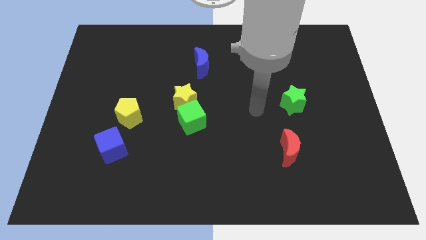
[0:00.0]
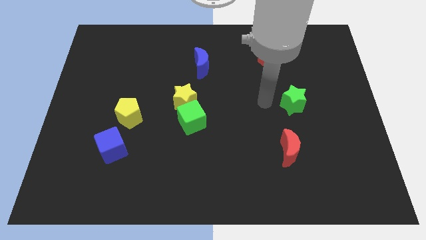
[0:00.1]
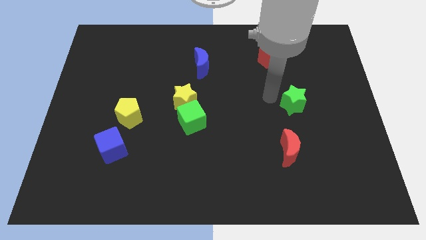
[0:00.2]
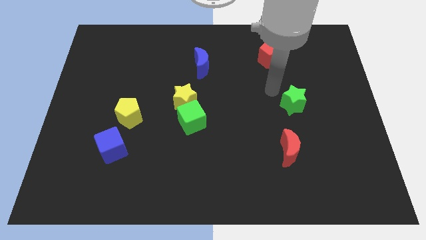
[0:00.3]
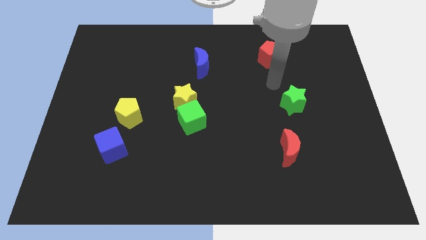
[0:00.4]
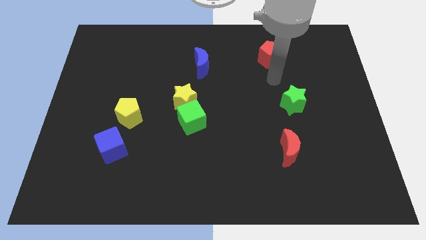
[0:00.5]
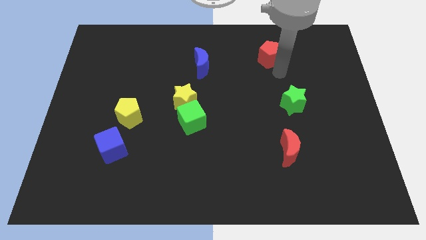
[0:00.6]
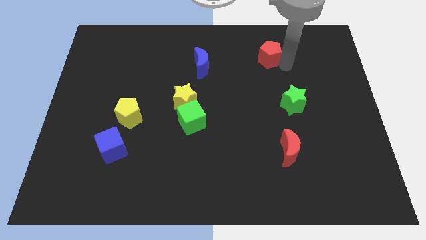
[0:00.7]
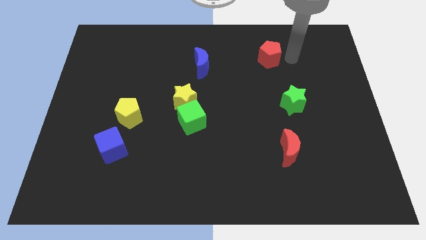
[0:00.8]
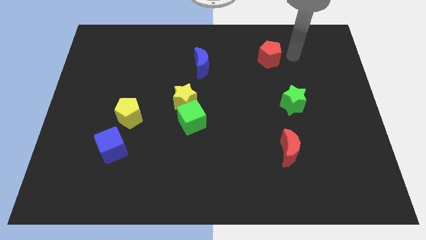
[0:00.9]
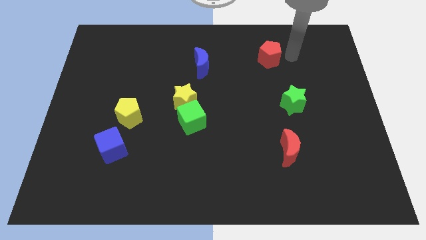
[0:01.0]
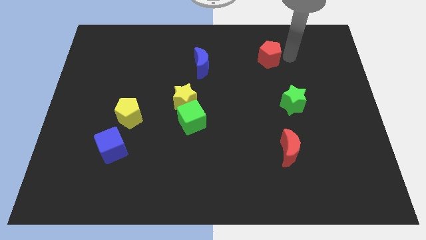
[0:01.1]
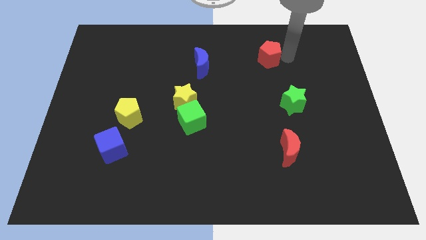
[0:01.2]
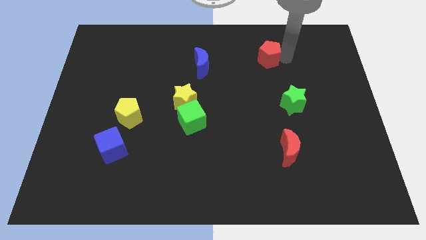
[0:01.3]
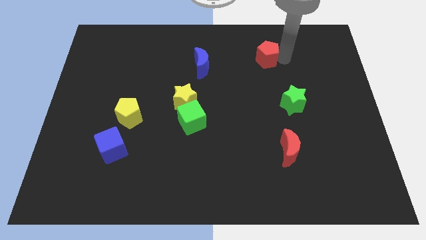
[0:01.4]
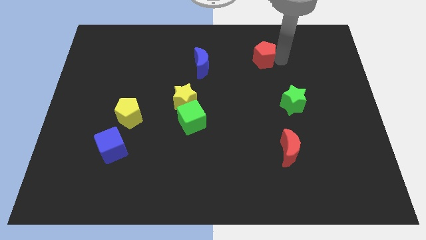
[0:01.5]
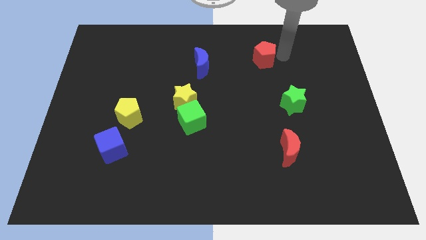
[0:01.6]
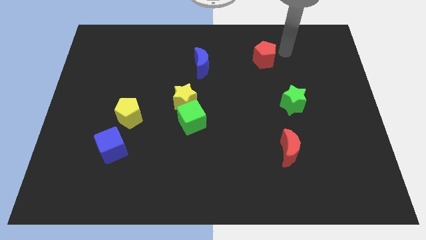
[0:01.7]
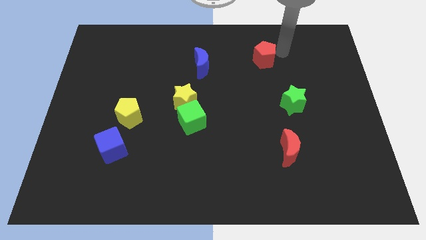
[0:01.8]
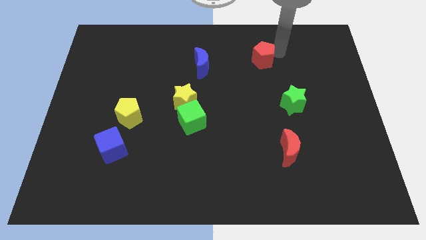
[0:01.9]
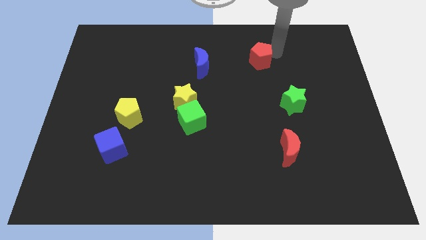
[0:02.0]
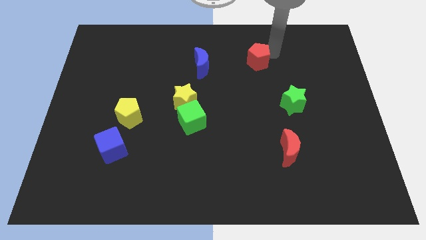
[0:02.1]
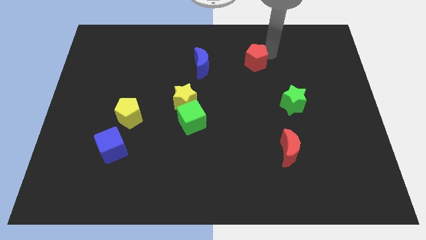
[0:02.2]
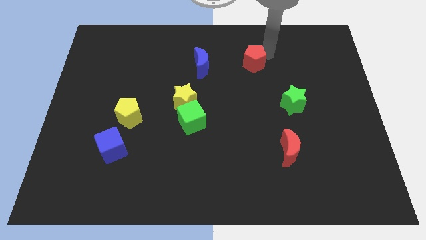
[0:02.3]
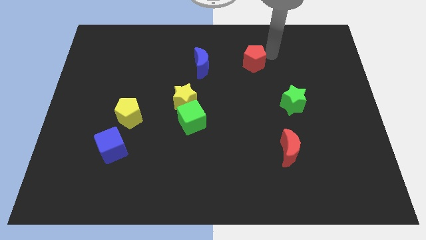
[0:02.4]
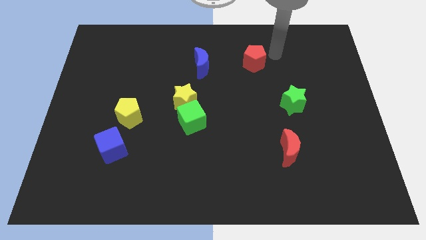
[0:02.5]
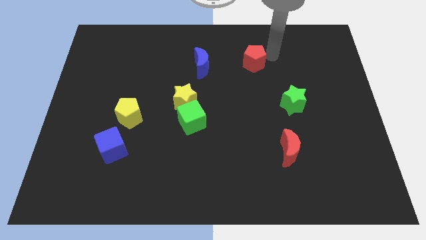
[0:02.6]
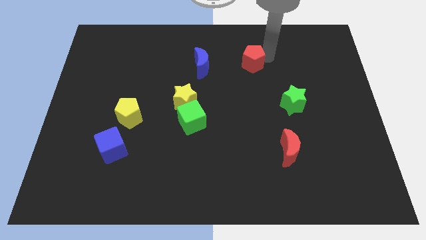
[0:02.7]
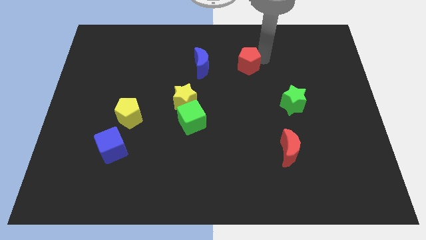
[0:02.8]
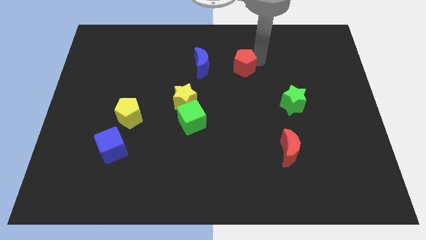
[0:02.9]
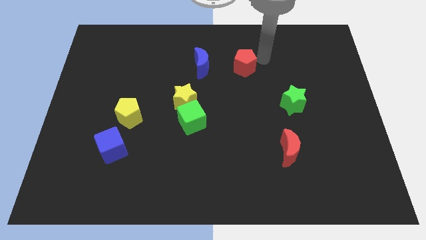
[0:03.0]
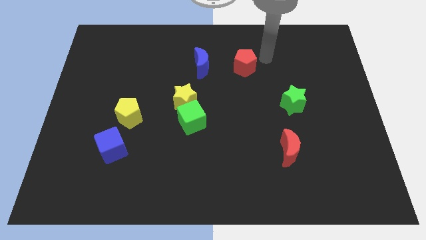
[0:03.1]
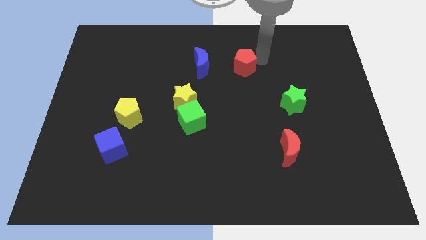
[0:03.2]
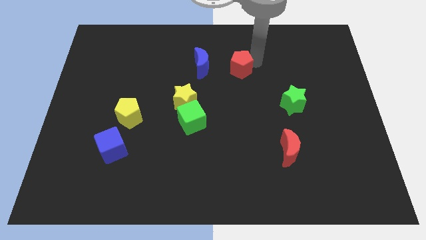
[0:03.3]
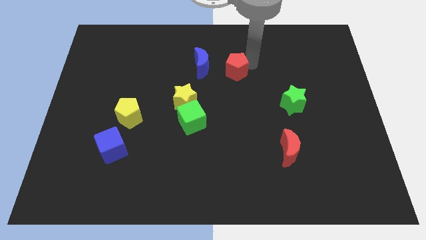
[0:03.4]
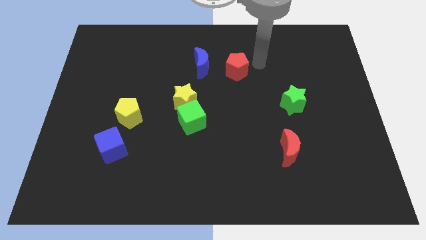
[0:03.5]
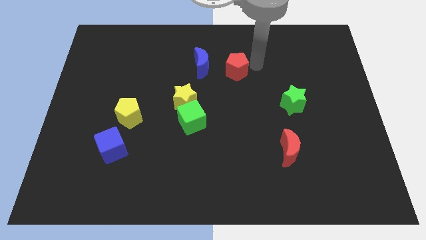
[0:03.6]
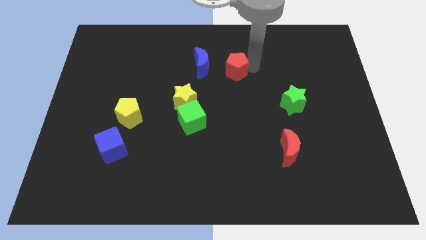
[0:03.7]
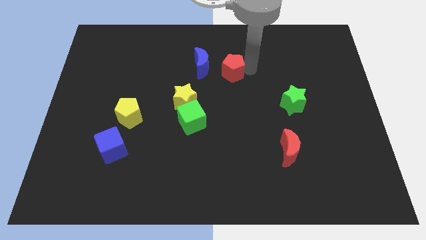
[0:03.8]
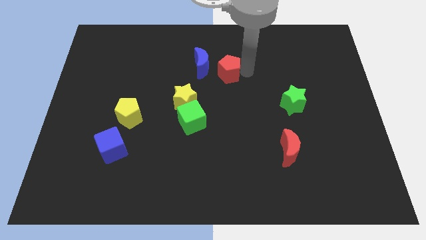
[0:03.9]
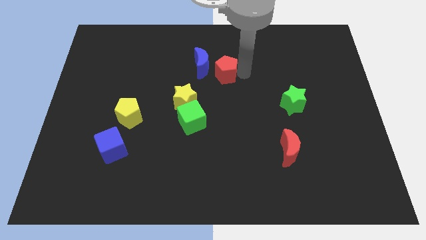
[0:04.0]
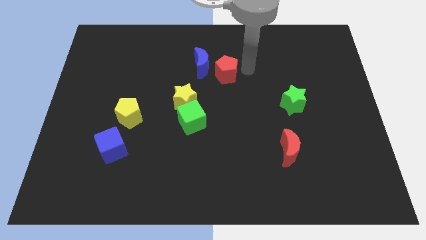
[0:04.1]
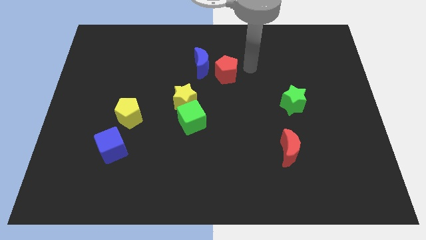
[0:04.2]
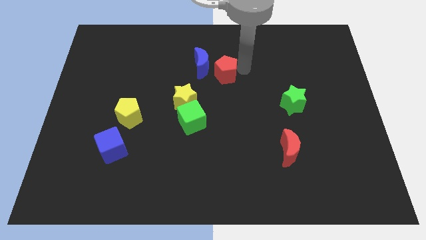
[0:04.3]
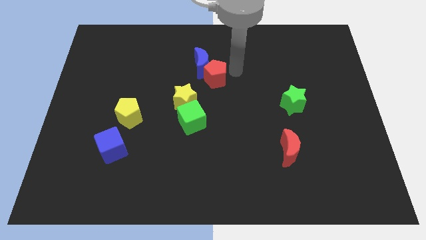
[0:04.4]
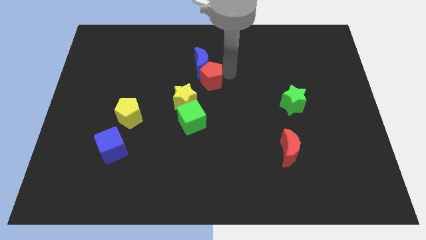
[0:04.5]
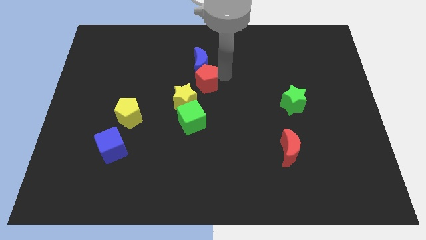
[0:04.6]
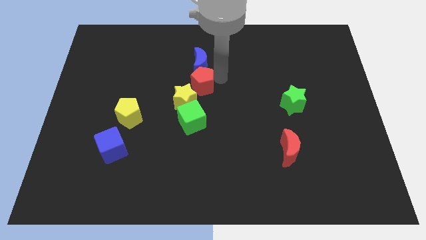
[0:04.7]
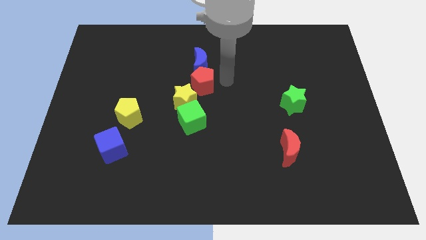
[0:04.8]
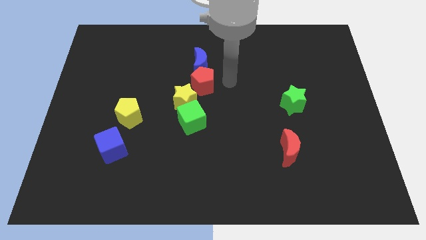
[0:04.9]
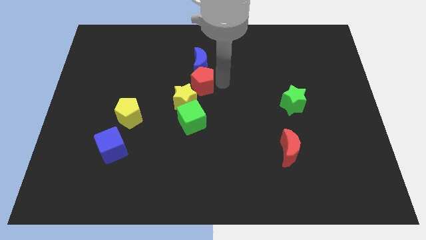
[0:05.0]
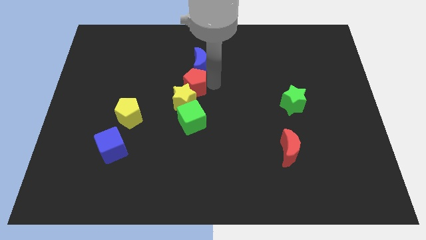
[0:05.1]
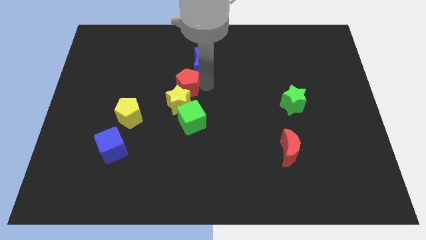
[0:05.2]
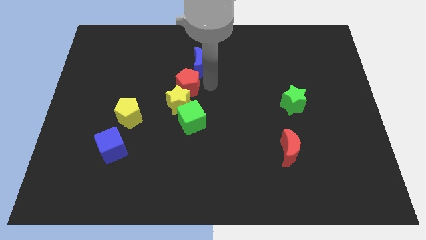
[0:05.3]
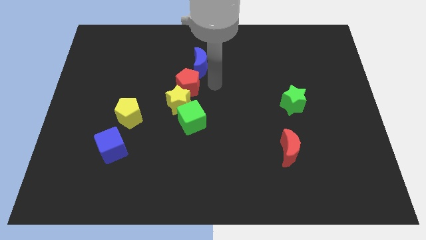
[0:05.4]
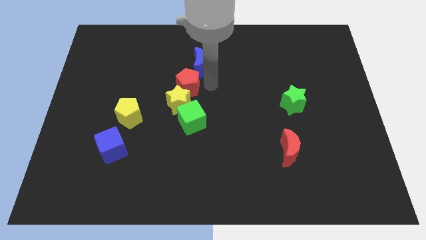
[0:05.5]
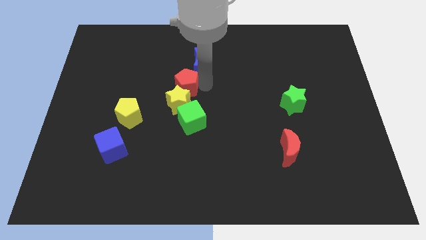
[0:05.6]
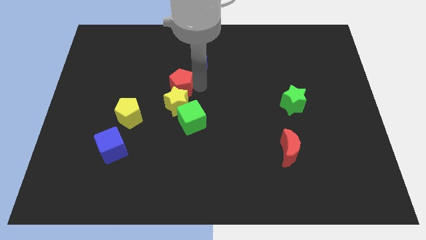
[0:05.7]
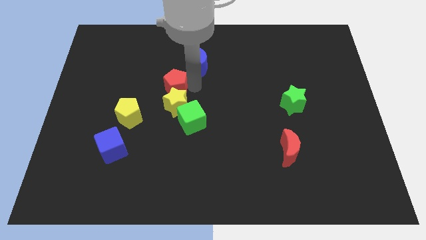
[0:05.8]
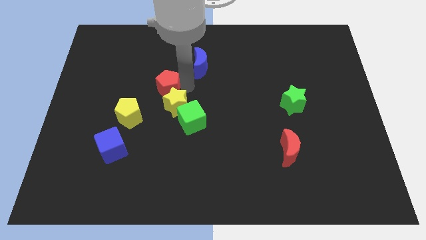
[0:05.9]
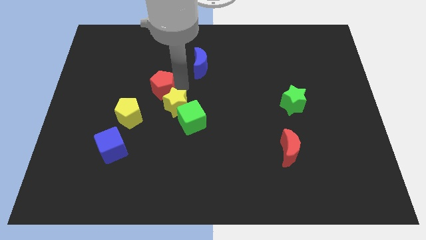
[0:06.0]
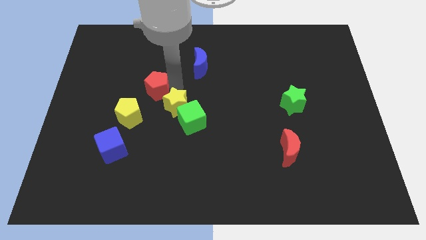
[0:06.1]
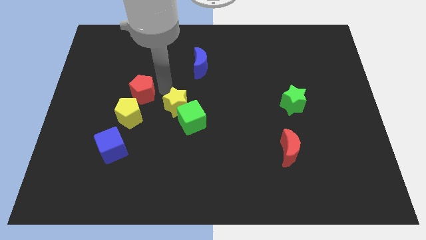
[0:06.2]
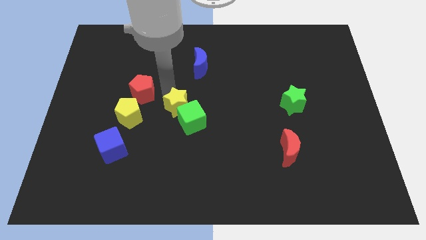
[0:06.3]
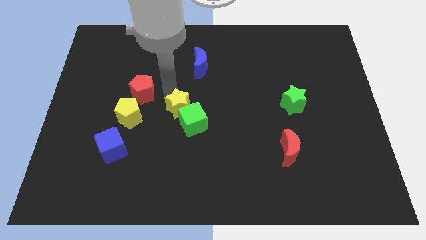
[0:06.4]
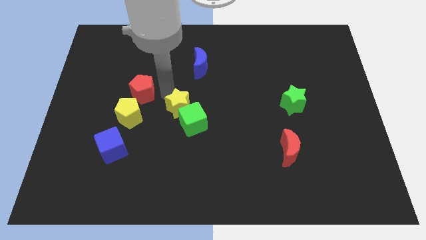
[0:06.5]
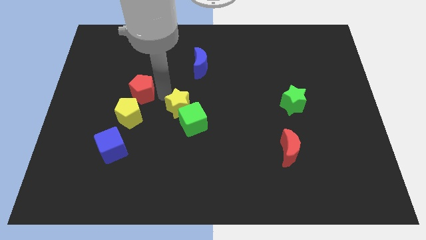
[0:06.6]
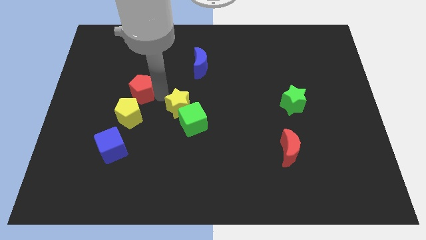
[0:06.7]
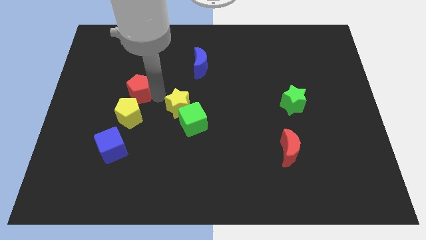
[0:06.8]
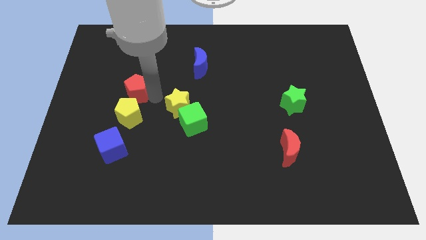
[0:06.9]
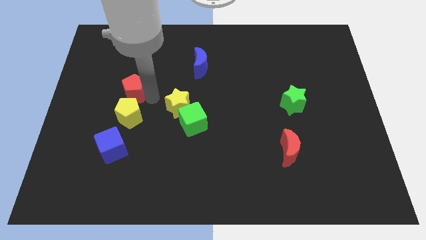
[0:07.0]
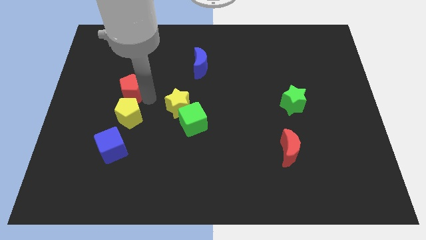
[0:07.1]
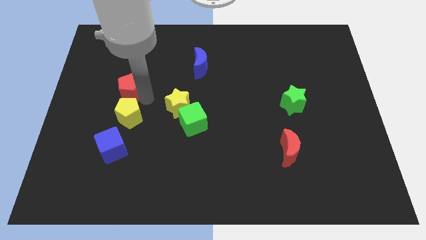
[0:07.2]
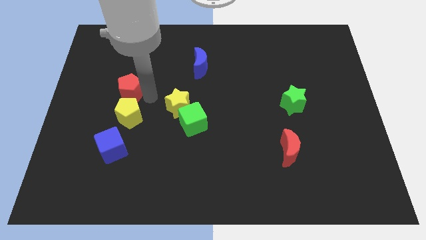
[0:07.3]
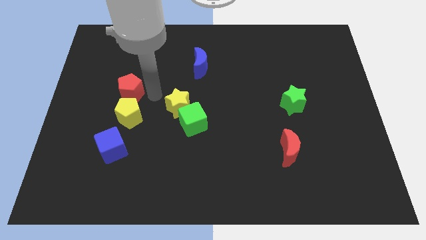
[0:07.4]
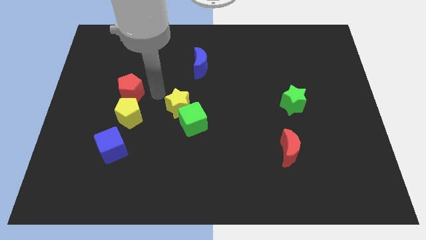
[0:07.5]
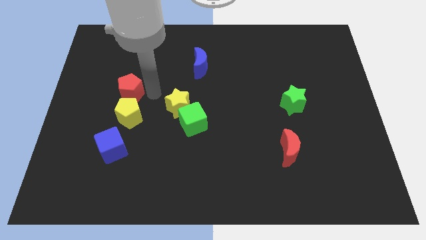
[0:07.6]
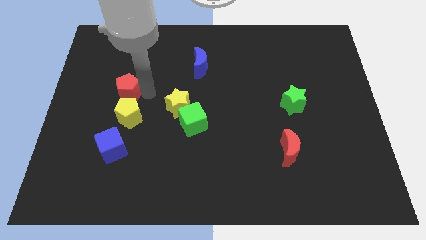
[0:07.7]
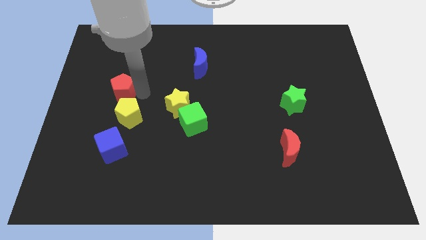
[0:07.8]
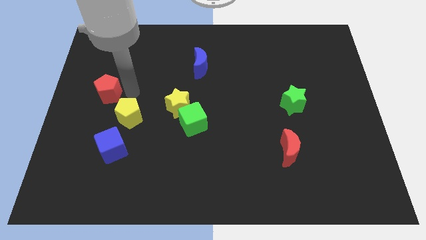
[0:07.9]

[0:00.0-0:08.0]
push the red pentagon to the center left
